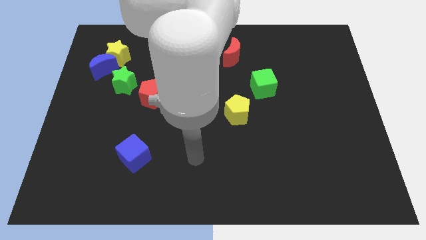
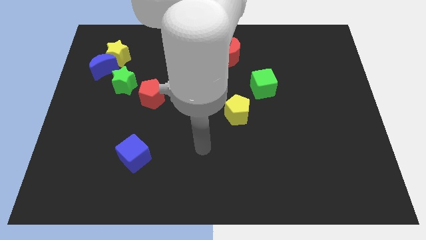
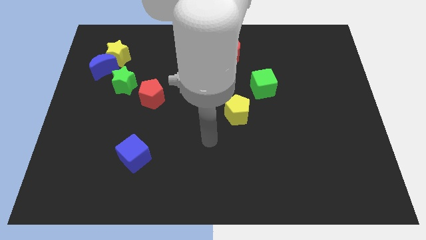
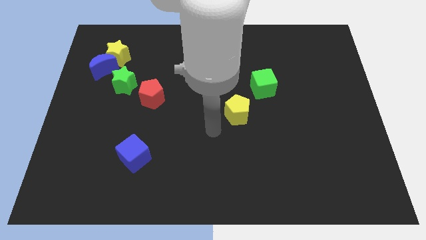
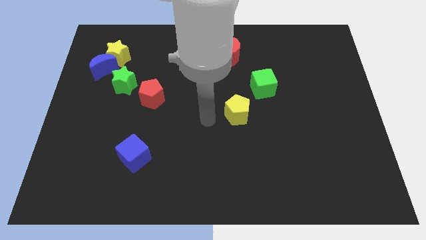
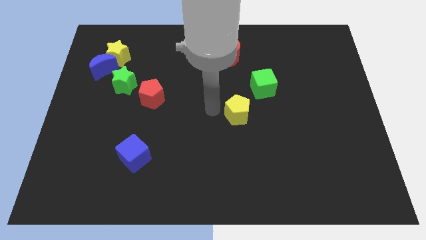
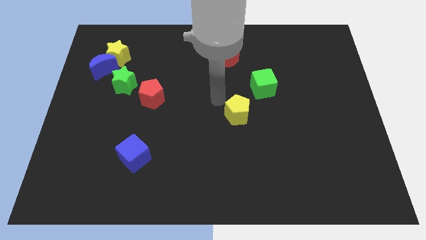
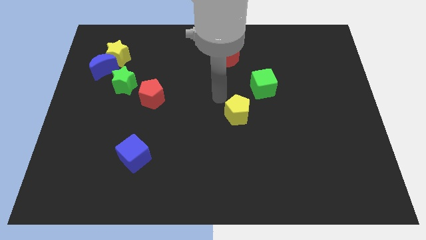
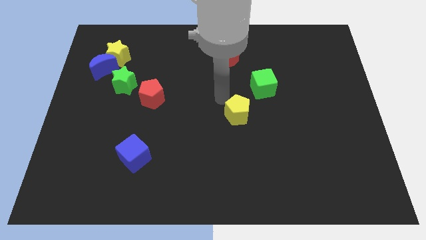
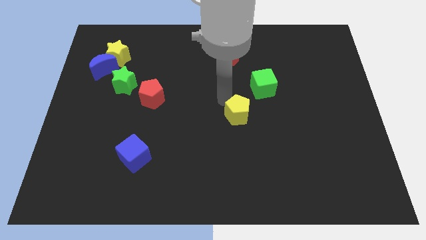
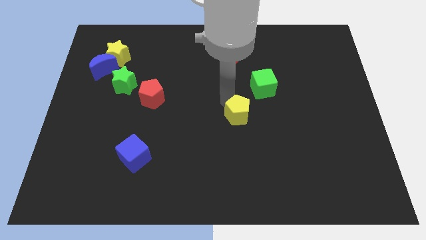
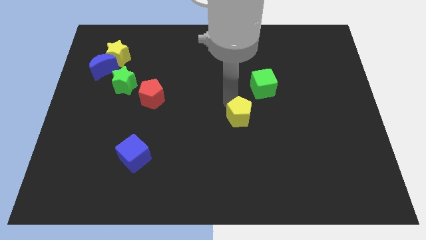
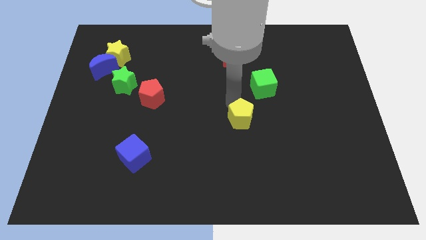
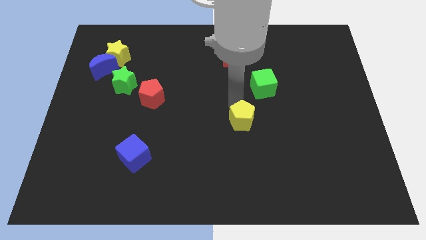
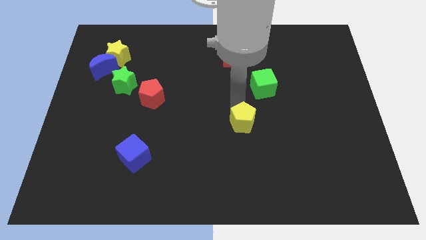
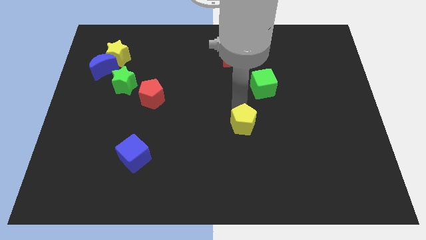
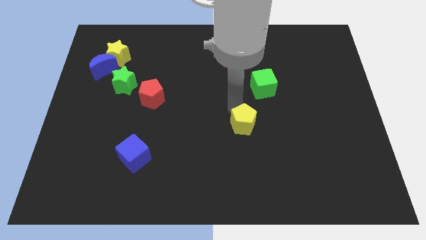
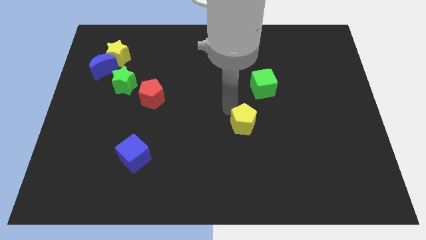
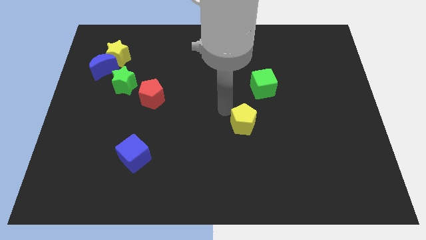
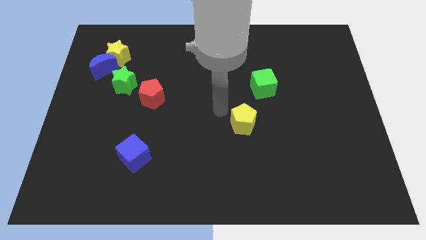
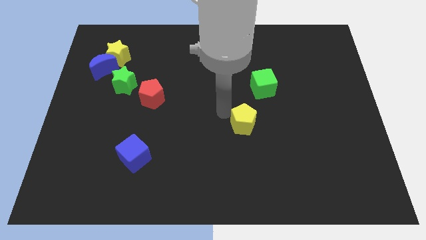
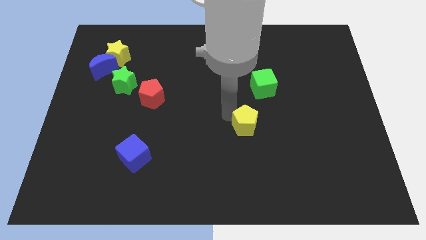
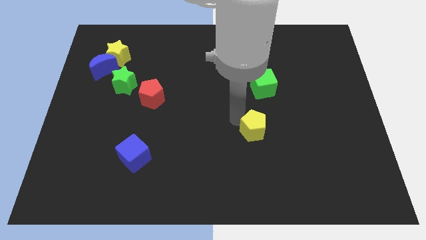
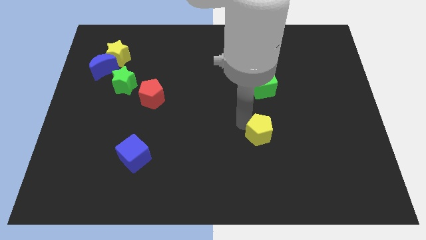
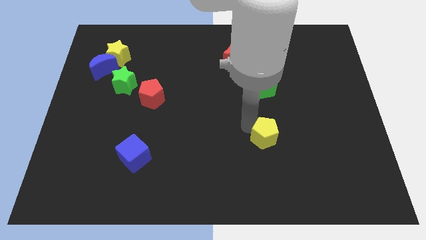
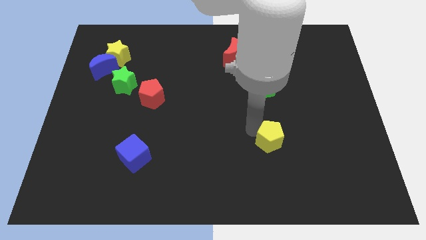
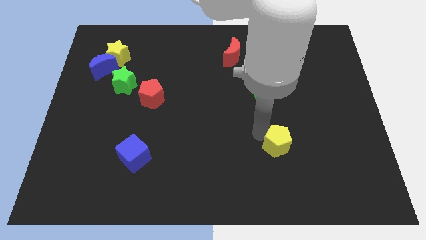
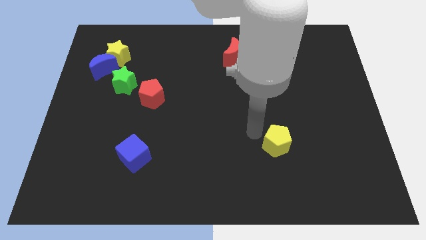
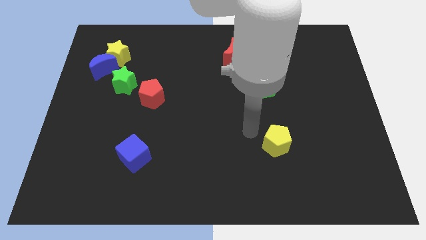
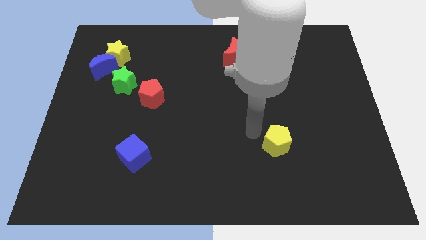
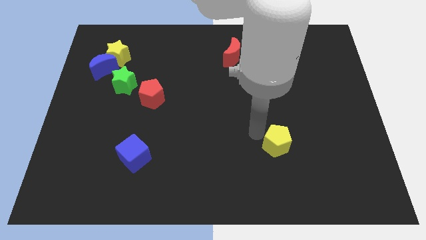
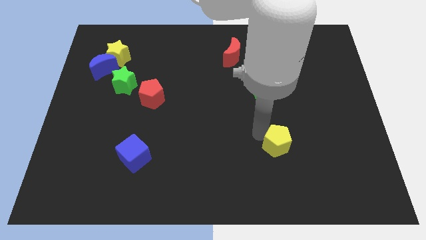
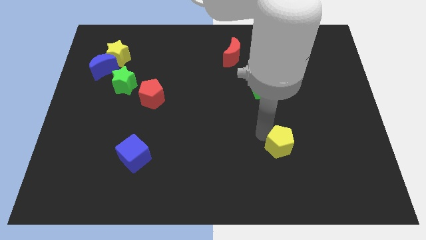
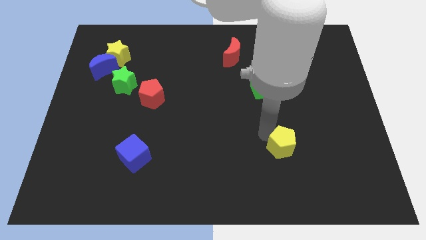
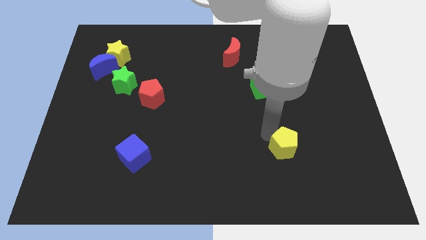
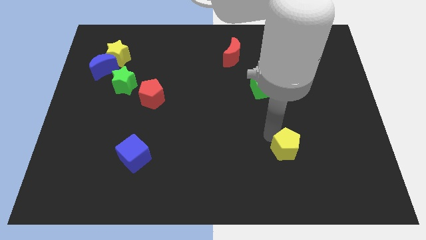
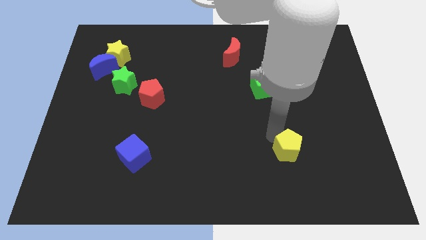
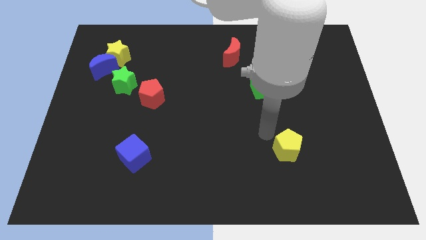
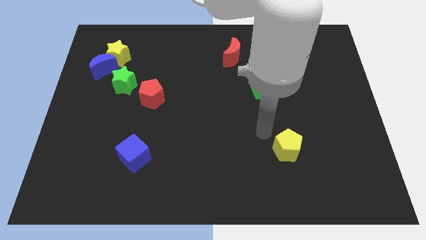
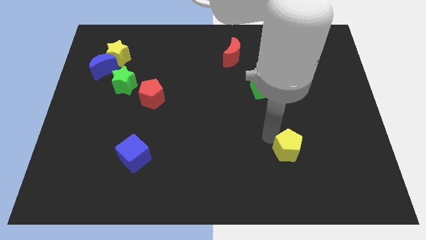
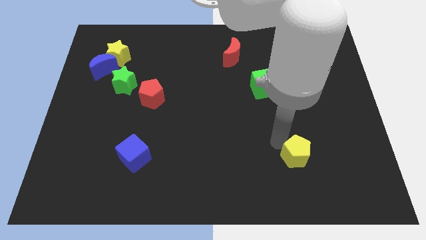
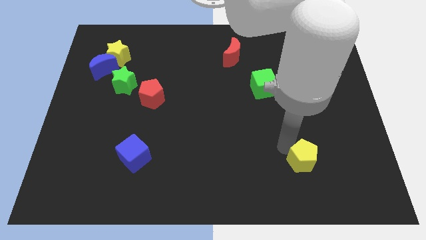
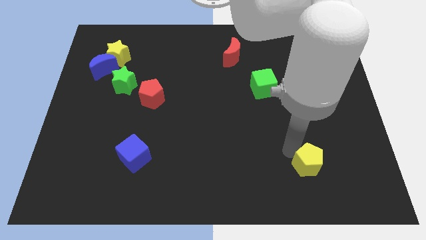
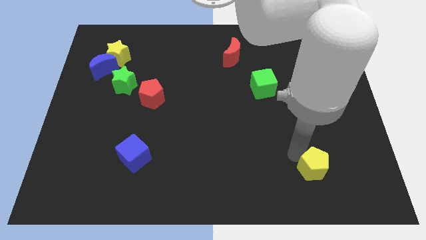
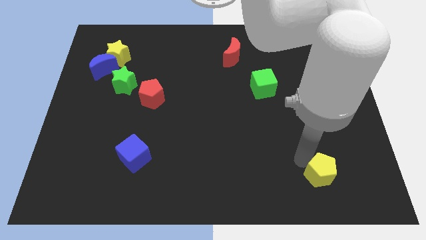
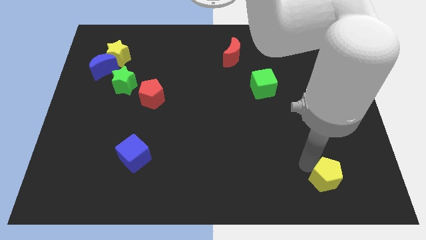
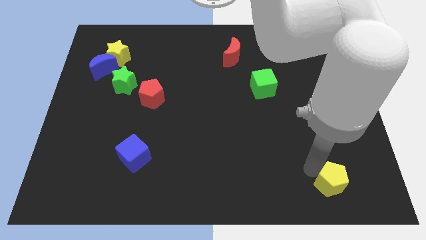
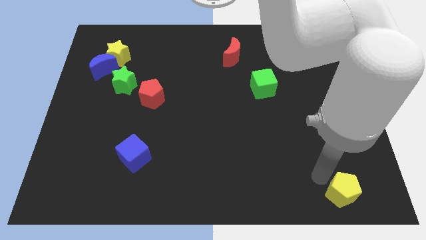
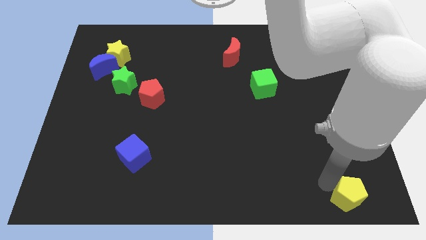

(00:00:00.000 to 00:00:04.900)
push the yellow pentagon to the lower right corner

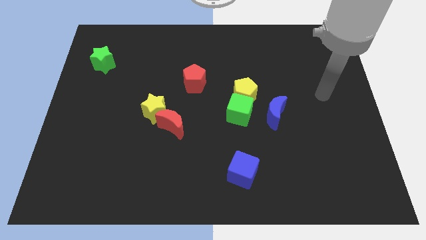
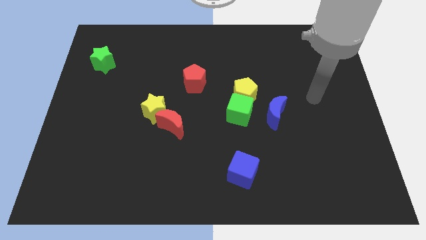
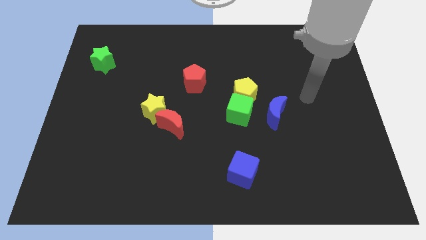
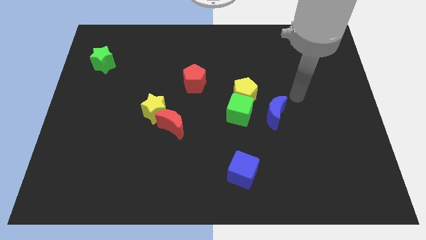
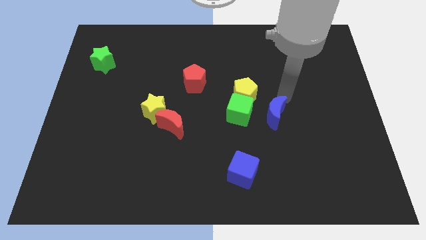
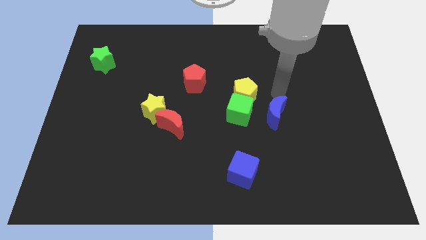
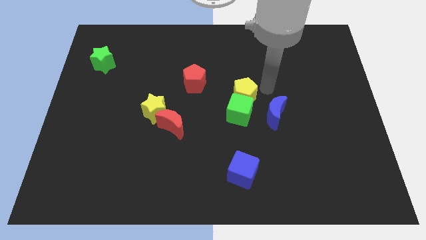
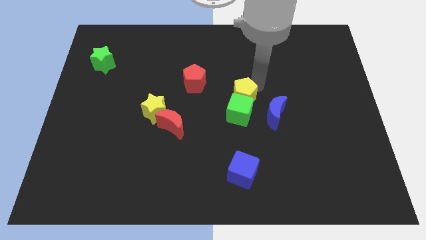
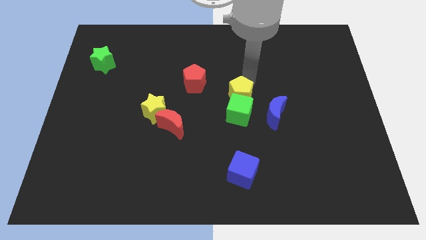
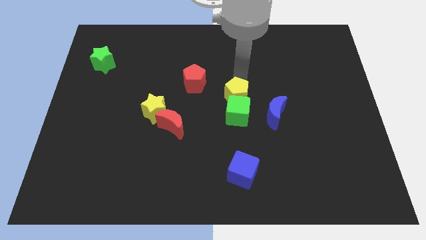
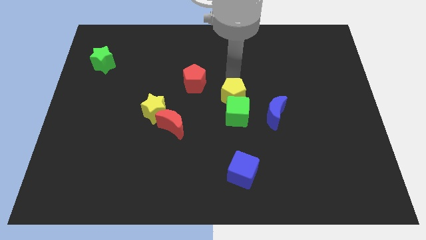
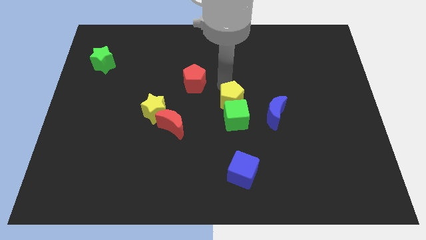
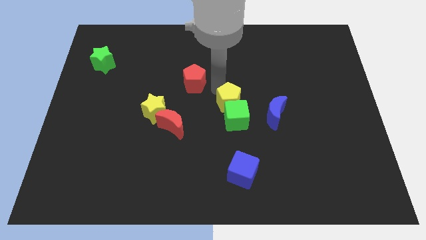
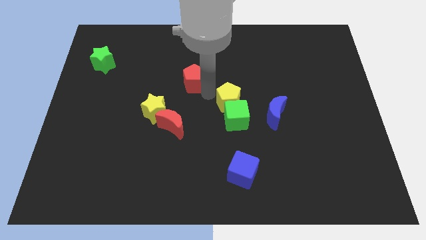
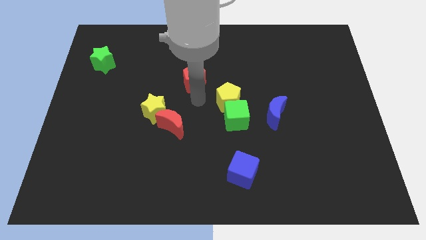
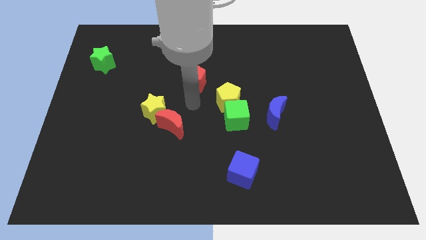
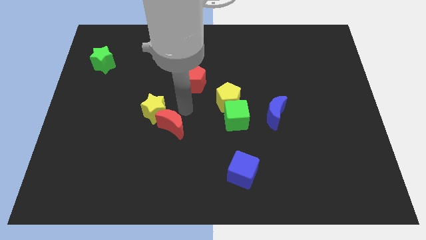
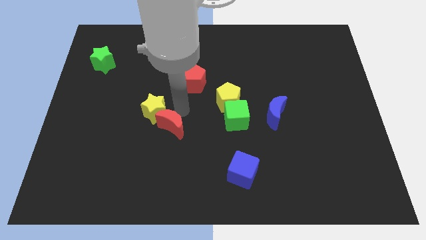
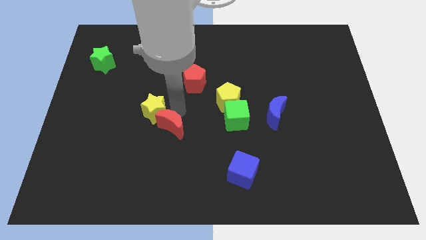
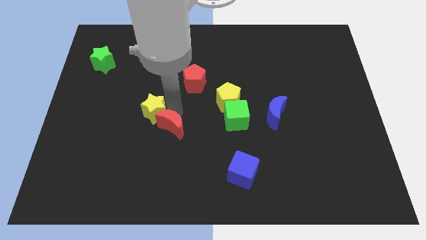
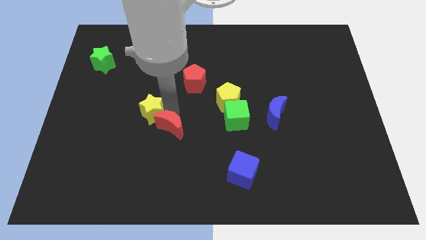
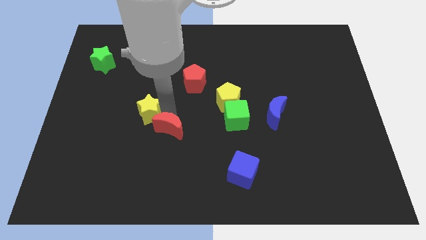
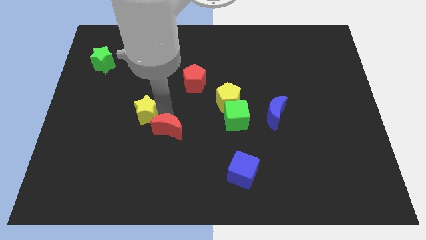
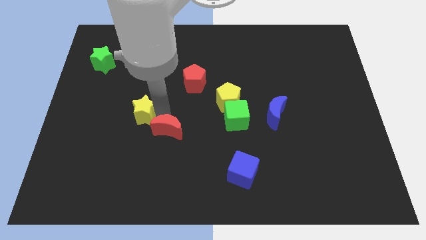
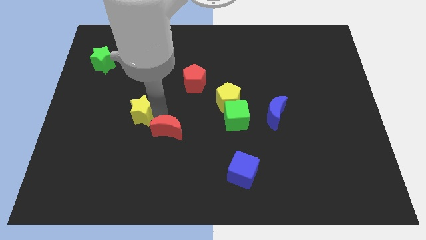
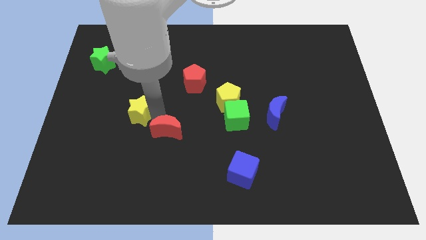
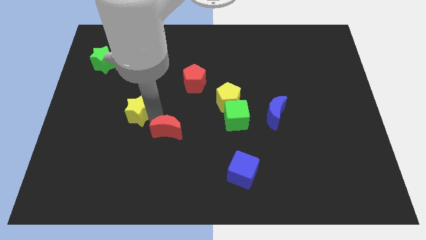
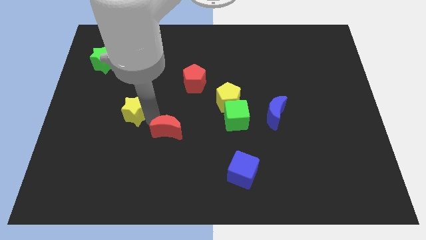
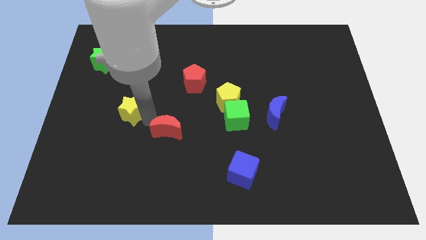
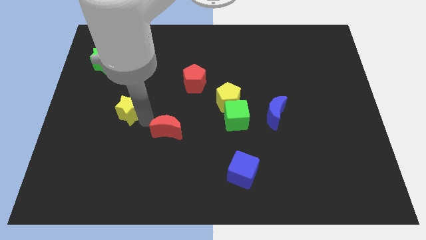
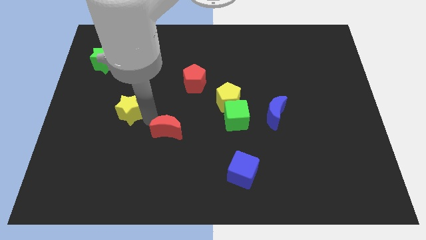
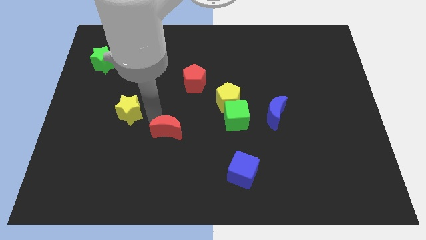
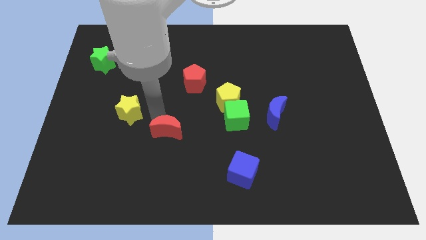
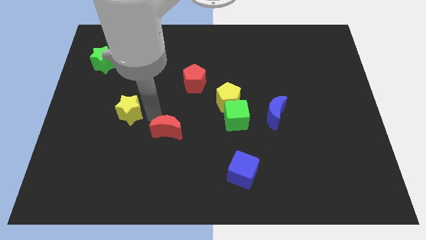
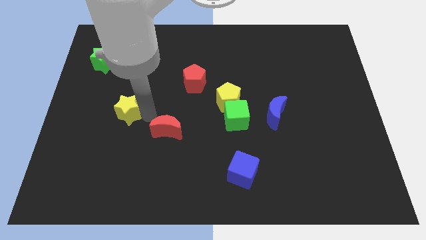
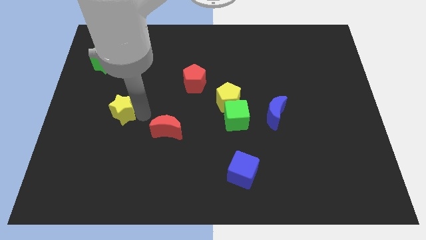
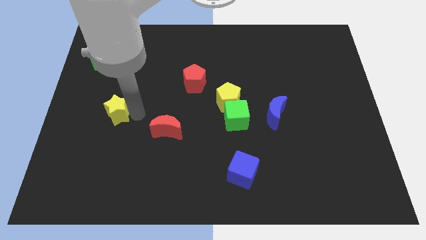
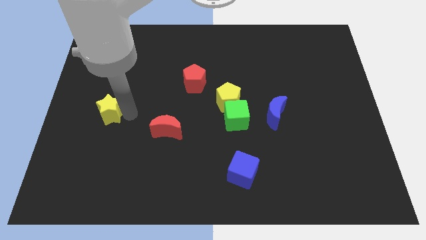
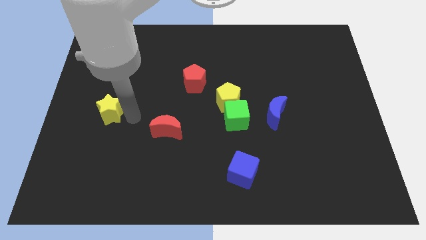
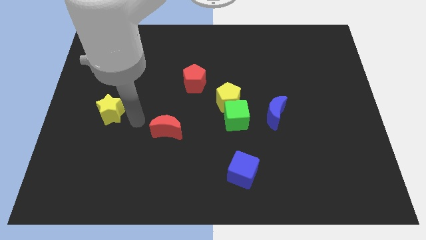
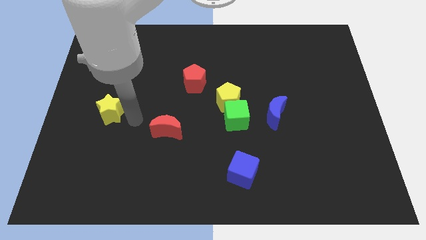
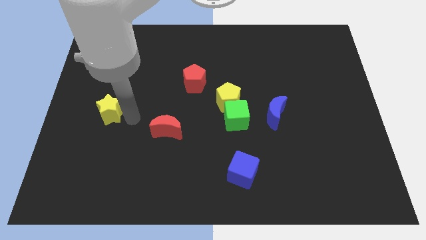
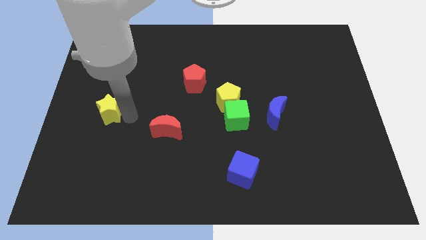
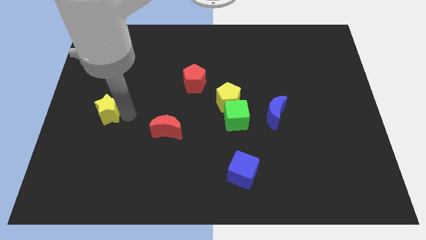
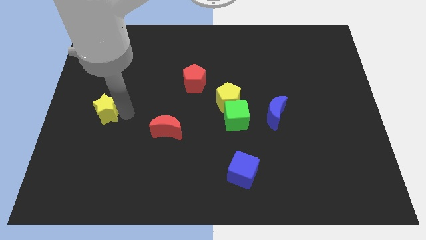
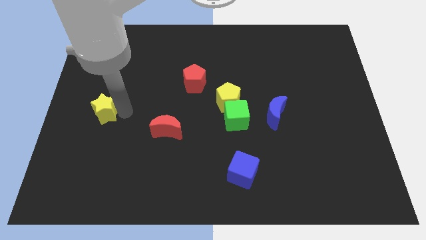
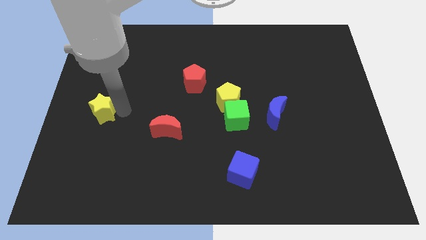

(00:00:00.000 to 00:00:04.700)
push the yellow star to the left side of the board
